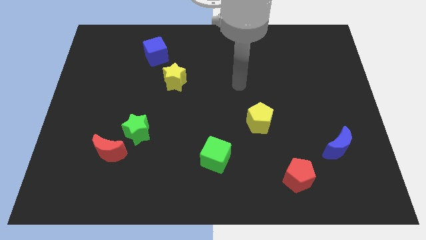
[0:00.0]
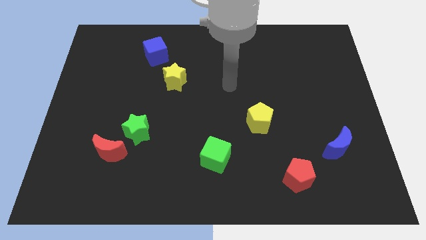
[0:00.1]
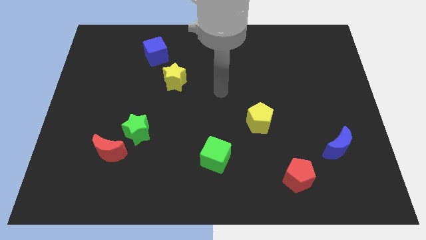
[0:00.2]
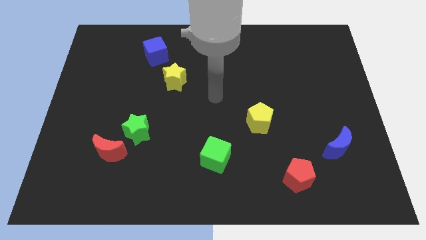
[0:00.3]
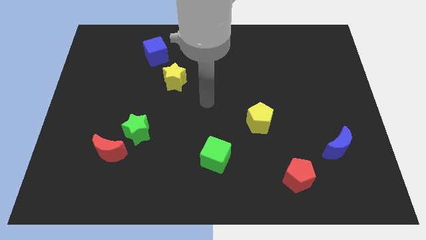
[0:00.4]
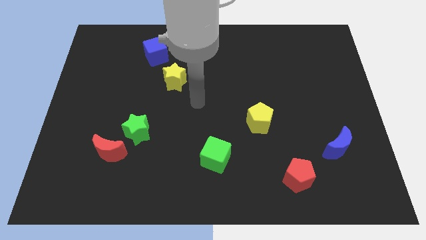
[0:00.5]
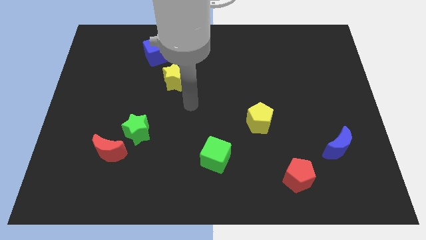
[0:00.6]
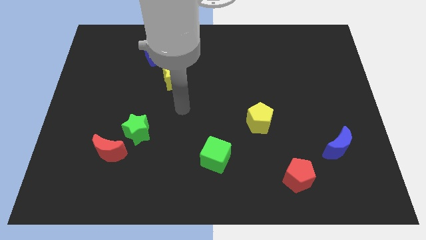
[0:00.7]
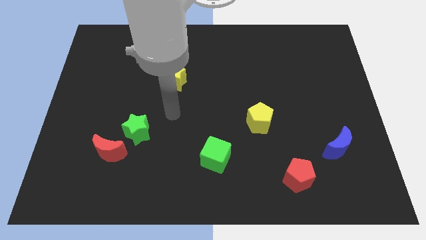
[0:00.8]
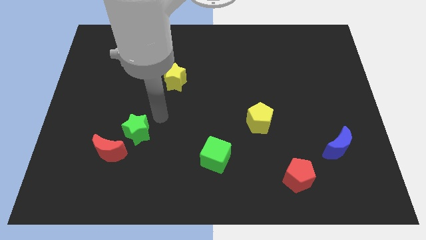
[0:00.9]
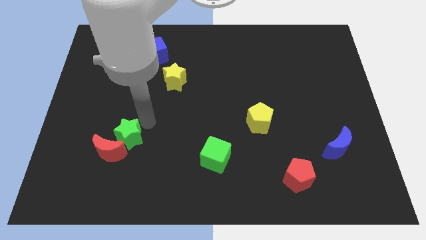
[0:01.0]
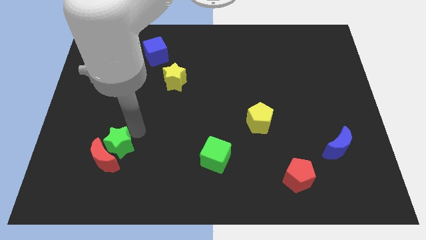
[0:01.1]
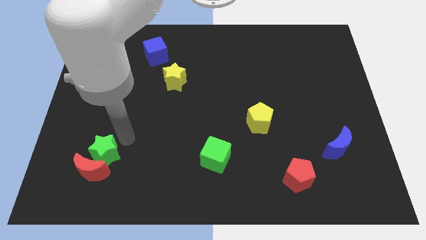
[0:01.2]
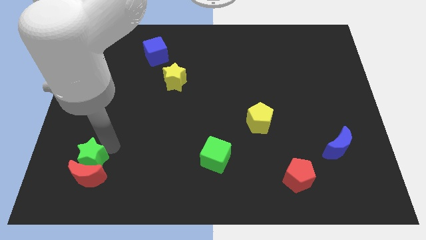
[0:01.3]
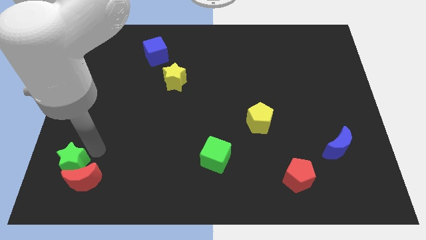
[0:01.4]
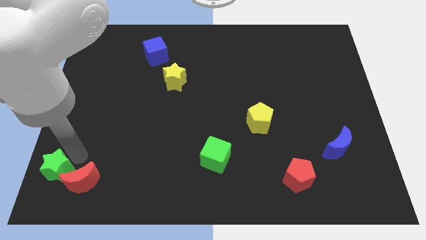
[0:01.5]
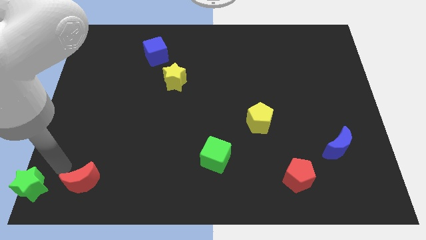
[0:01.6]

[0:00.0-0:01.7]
separate the red moon from the green star

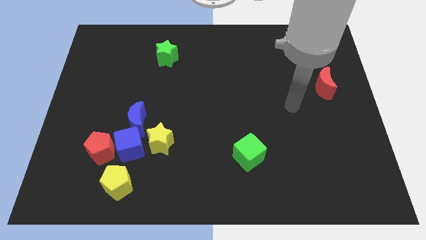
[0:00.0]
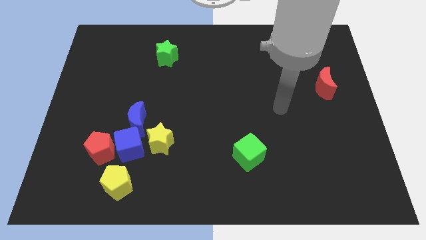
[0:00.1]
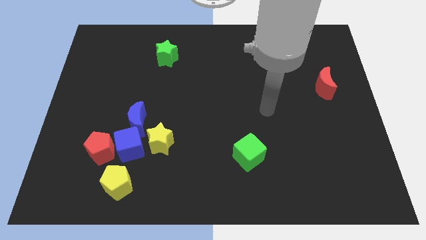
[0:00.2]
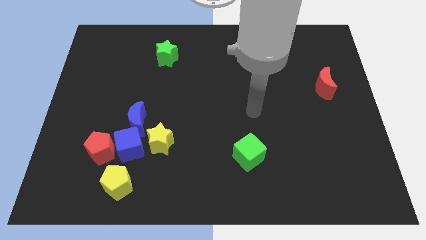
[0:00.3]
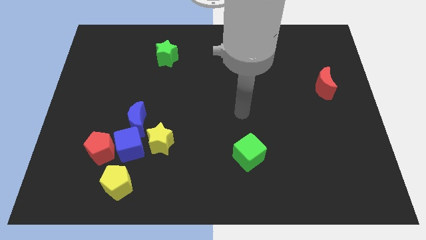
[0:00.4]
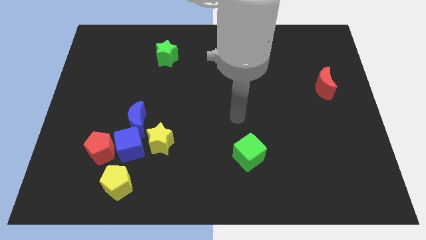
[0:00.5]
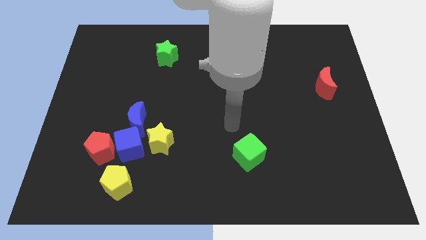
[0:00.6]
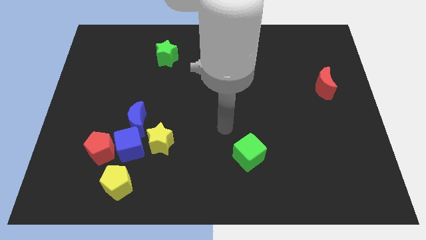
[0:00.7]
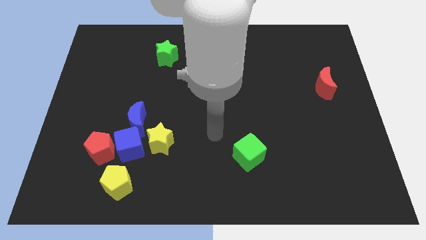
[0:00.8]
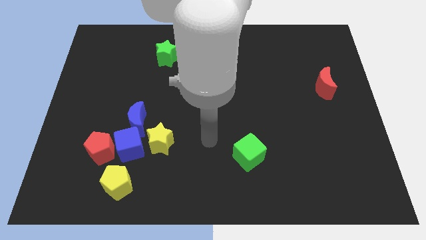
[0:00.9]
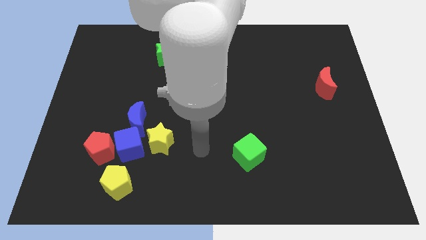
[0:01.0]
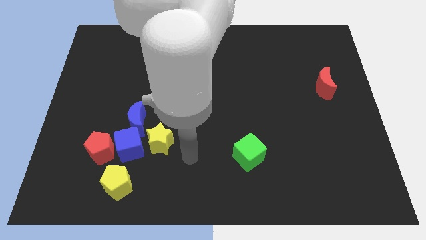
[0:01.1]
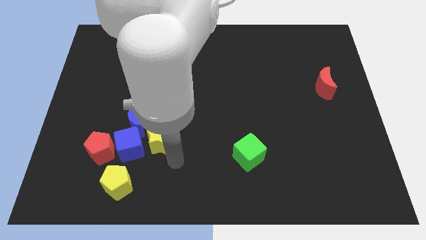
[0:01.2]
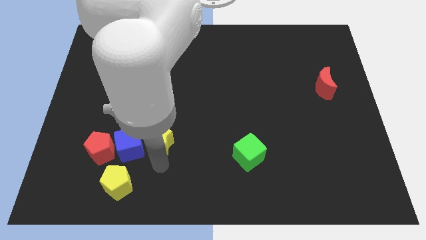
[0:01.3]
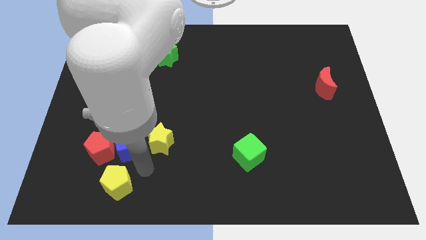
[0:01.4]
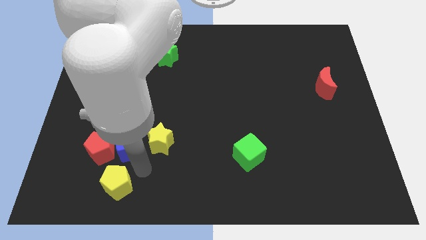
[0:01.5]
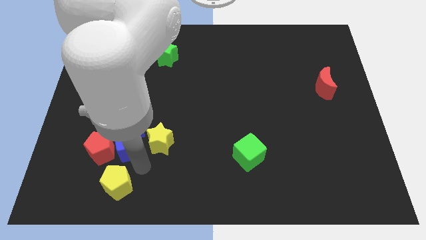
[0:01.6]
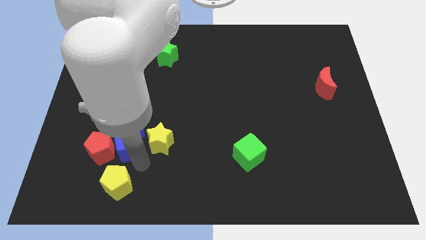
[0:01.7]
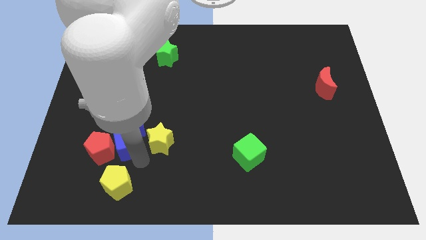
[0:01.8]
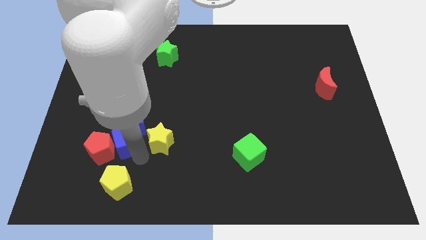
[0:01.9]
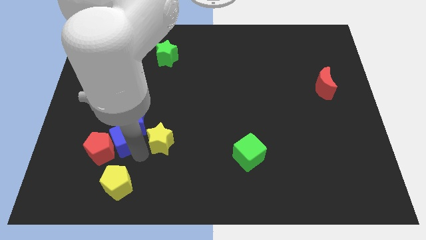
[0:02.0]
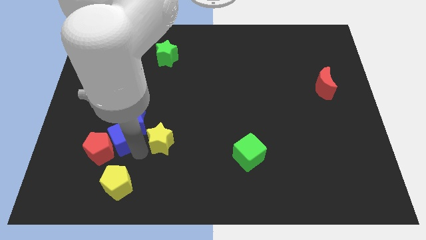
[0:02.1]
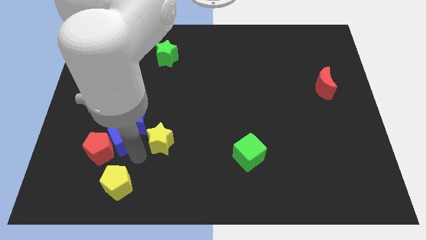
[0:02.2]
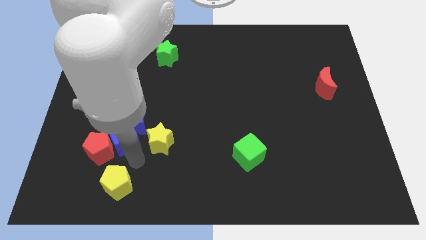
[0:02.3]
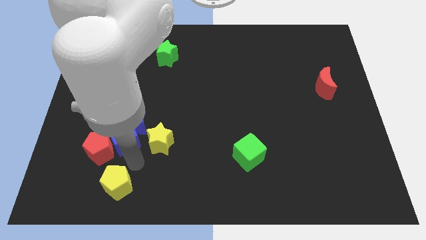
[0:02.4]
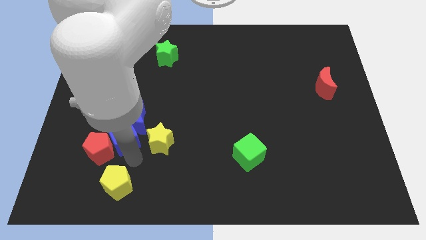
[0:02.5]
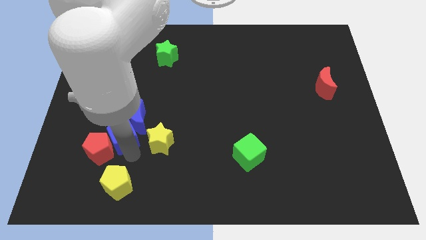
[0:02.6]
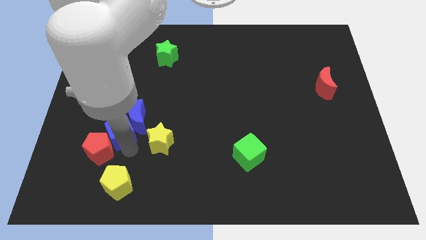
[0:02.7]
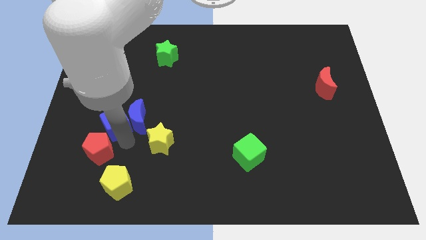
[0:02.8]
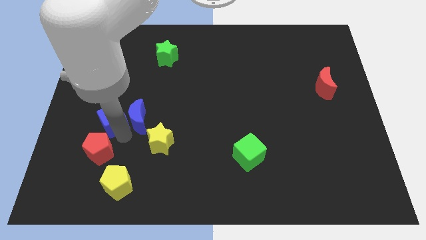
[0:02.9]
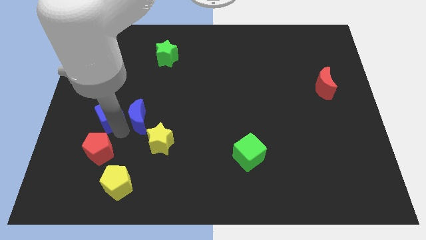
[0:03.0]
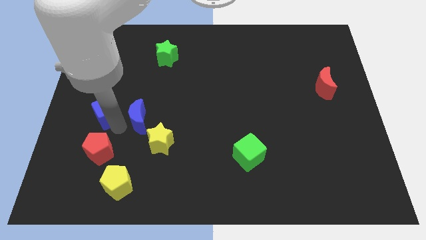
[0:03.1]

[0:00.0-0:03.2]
separate the blue cube from the group of blocks

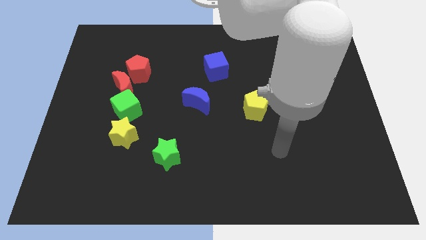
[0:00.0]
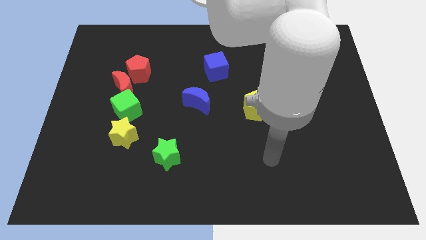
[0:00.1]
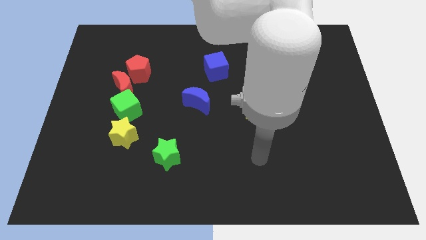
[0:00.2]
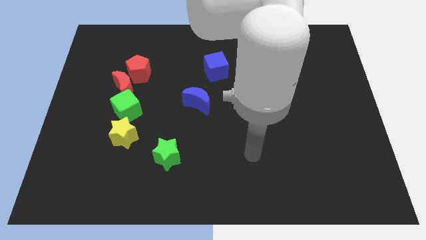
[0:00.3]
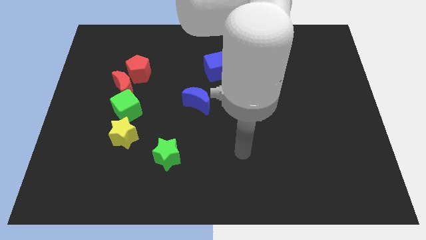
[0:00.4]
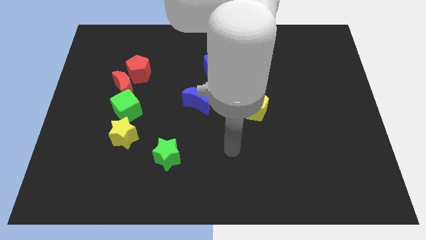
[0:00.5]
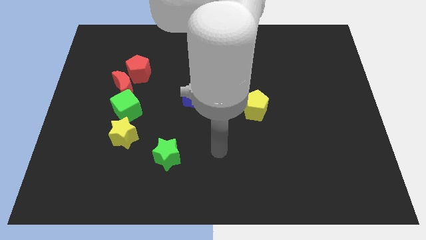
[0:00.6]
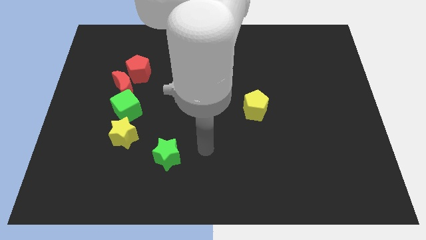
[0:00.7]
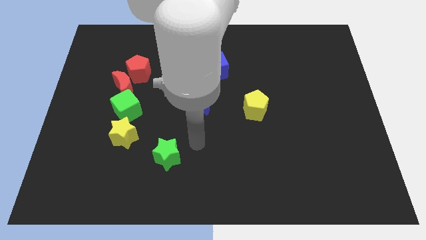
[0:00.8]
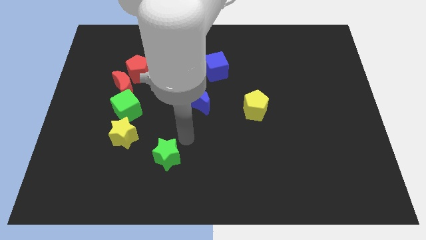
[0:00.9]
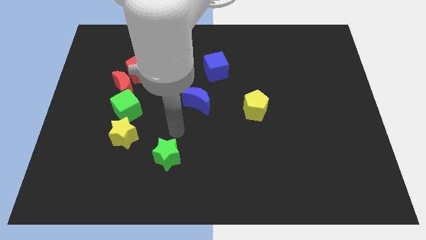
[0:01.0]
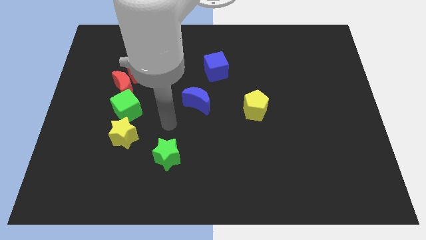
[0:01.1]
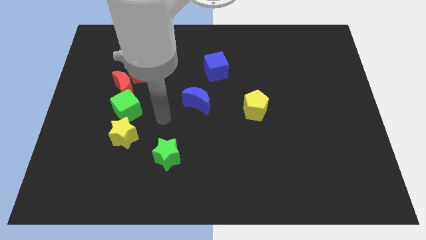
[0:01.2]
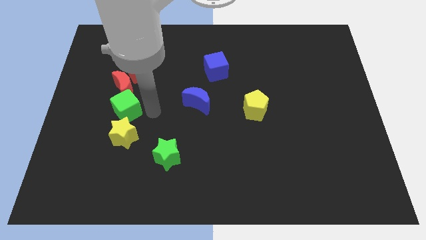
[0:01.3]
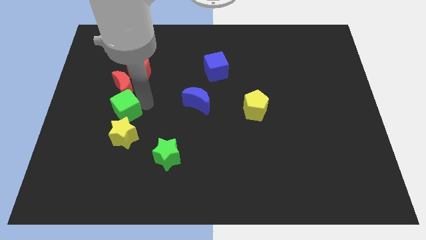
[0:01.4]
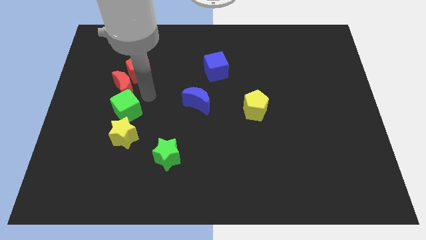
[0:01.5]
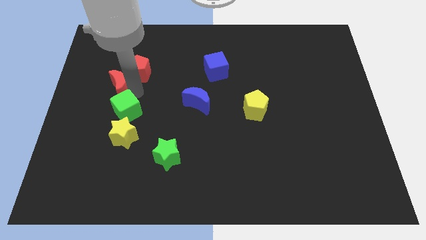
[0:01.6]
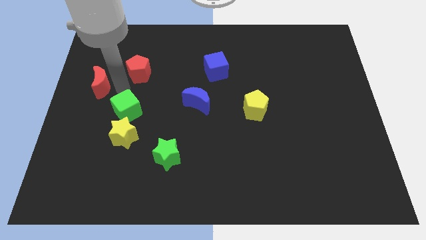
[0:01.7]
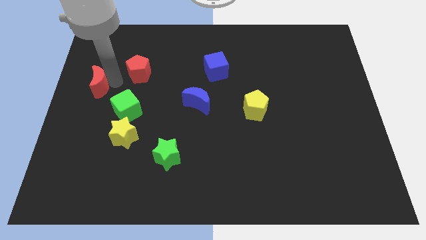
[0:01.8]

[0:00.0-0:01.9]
pull the red pentagon apart from the red moon

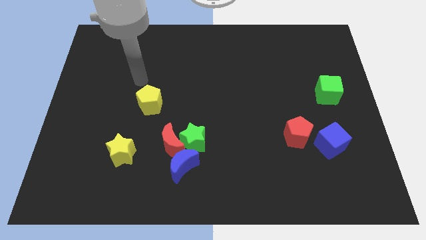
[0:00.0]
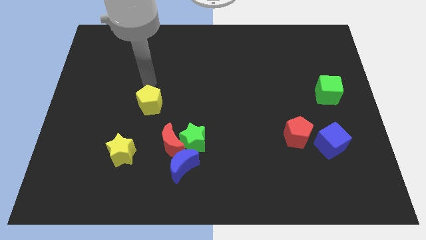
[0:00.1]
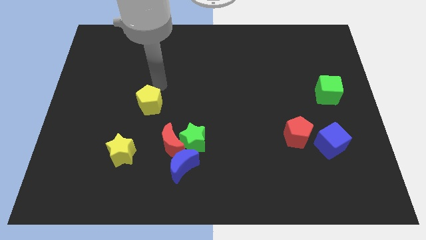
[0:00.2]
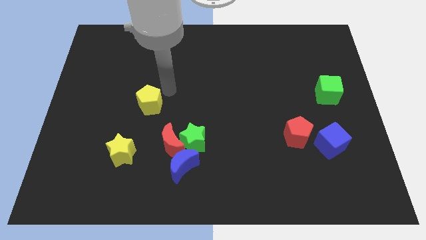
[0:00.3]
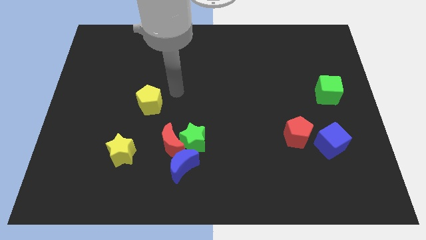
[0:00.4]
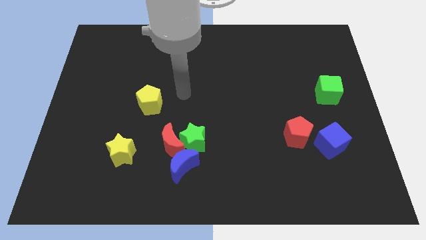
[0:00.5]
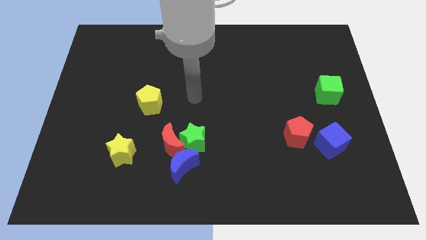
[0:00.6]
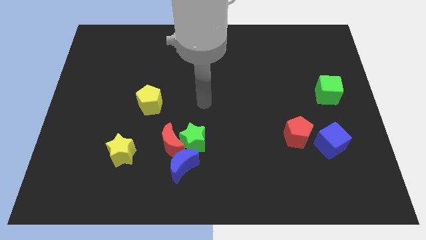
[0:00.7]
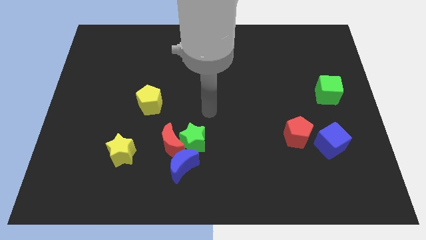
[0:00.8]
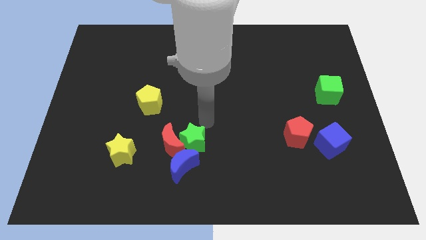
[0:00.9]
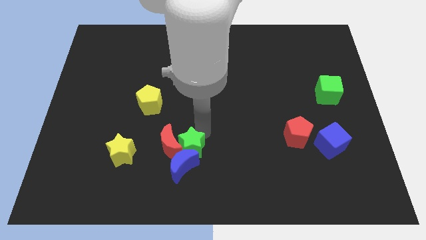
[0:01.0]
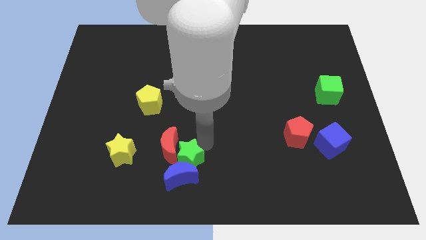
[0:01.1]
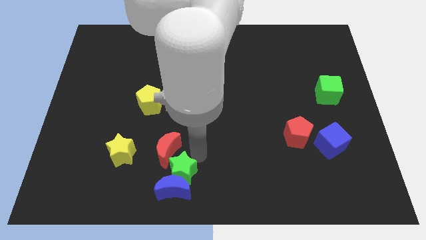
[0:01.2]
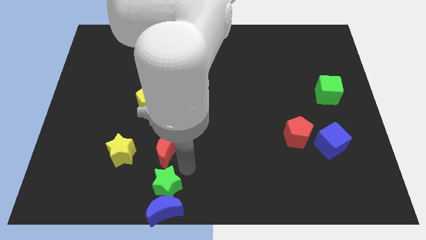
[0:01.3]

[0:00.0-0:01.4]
move the red moon away from the green star and blue moon

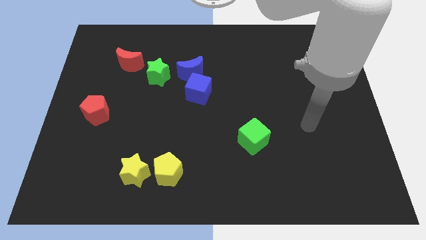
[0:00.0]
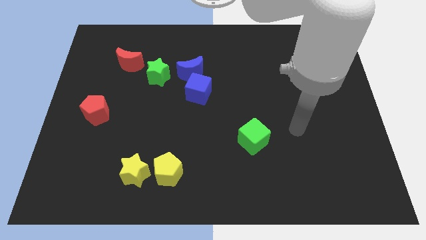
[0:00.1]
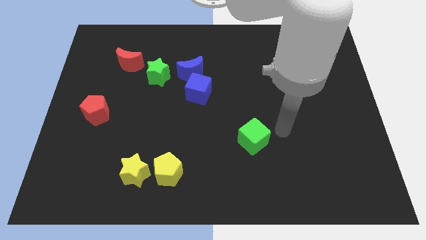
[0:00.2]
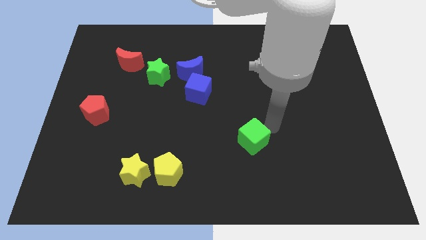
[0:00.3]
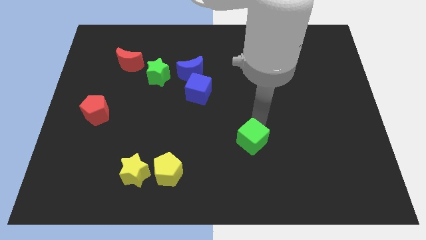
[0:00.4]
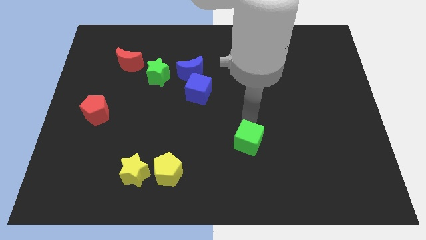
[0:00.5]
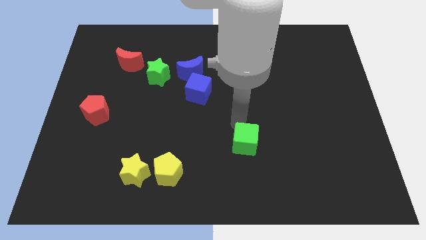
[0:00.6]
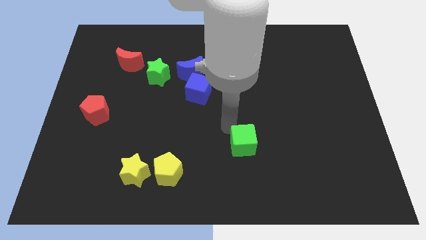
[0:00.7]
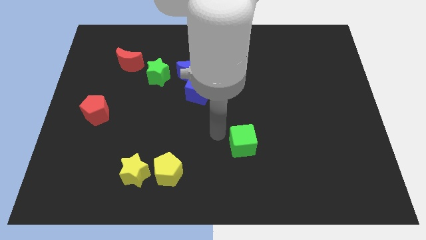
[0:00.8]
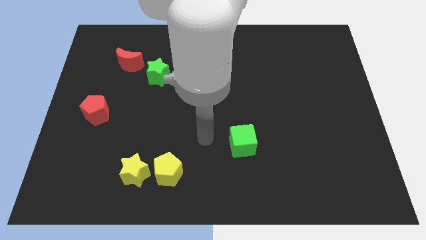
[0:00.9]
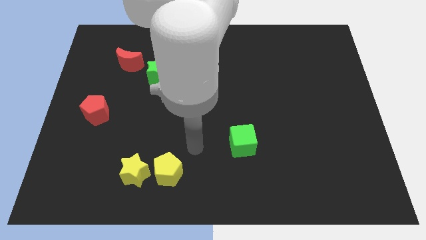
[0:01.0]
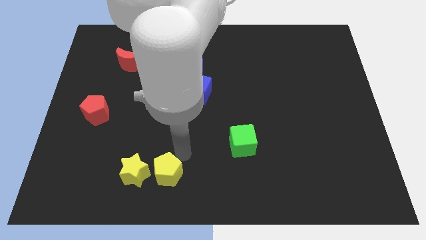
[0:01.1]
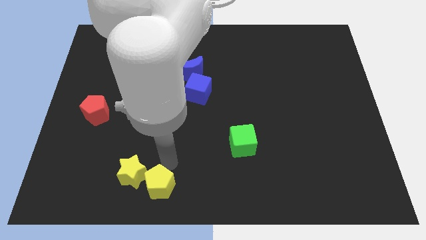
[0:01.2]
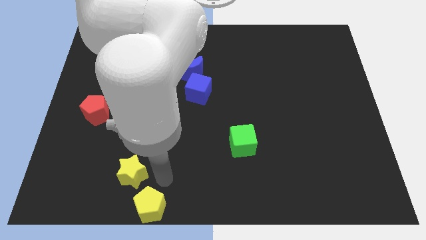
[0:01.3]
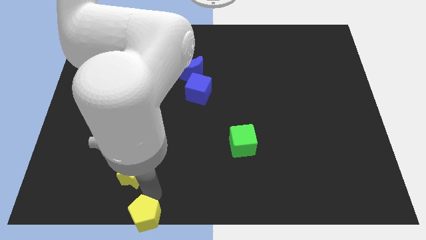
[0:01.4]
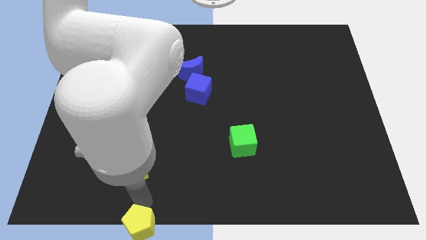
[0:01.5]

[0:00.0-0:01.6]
move the yellow star away from the yellow pentagon
